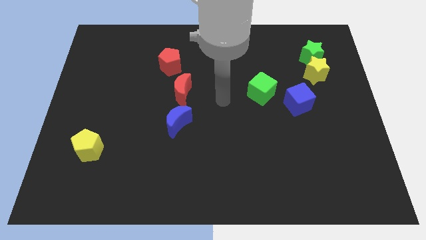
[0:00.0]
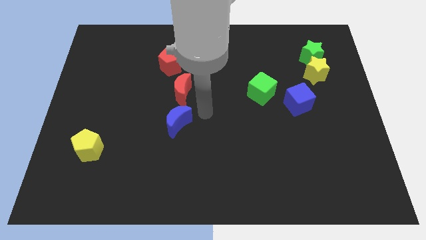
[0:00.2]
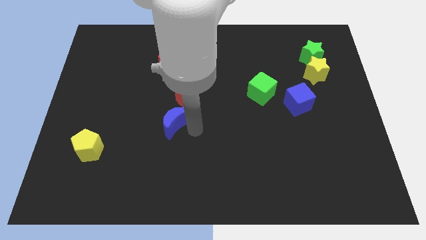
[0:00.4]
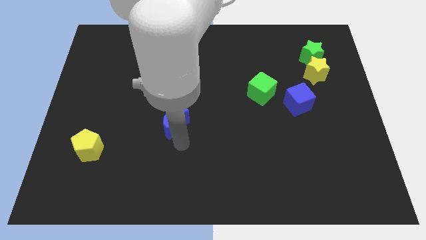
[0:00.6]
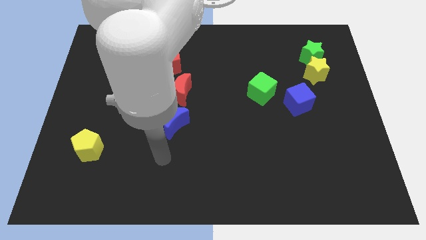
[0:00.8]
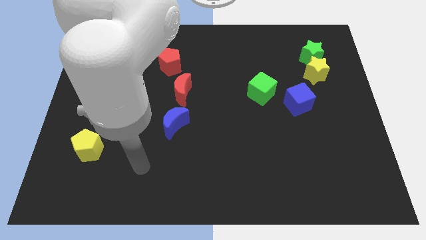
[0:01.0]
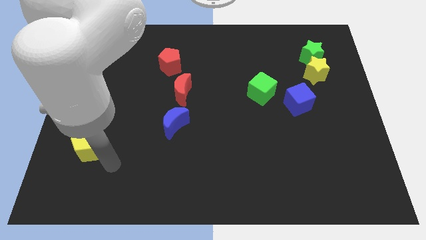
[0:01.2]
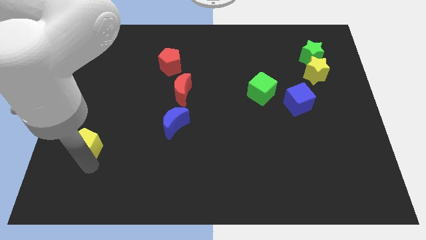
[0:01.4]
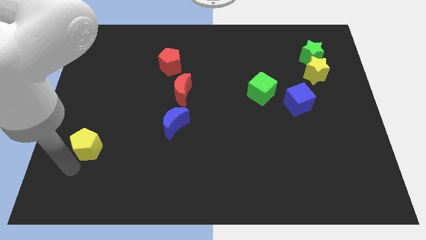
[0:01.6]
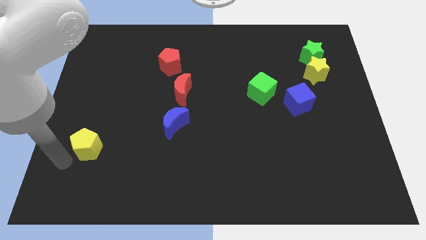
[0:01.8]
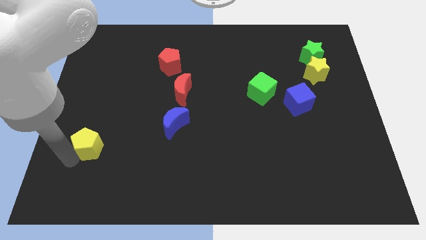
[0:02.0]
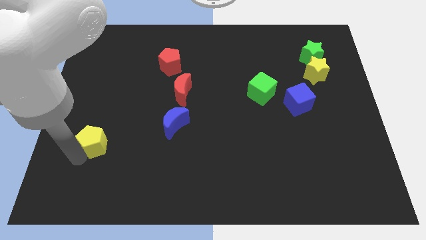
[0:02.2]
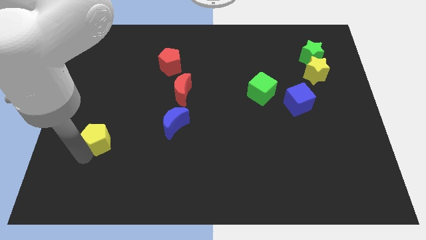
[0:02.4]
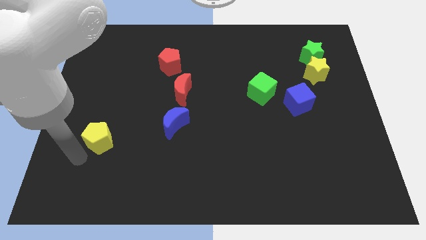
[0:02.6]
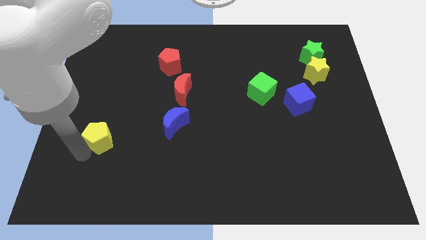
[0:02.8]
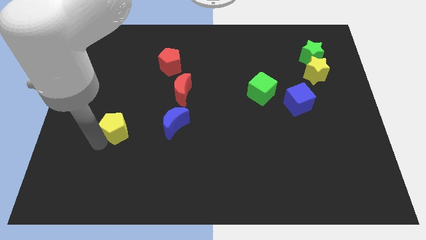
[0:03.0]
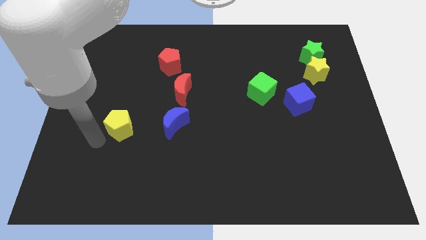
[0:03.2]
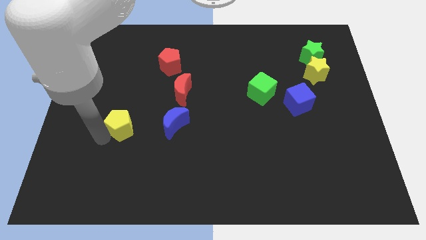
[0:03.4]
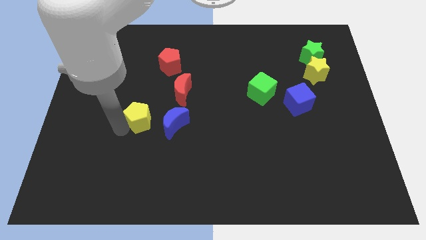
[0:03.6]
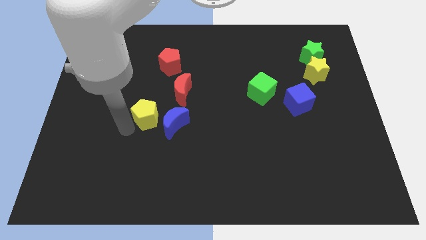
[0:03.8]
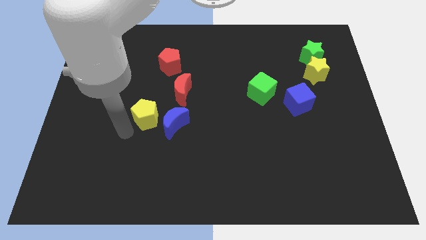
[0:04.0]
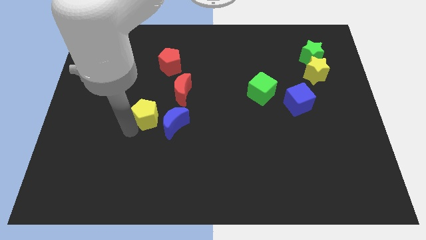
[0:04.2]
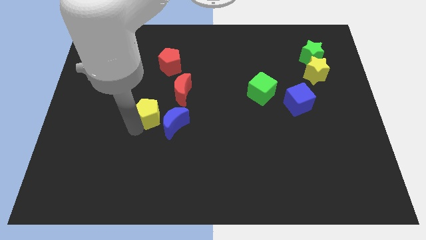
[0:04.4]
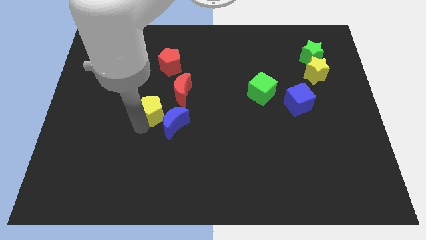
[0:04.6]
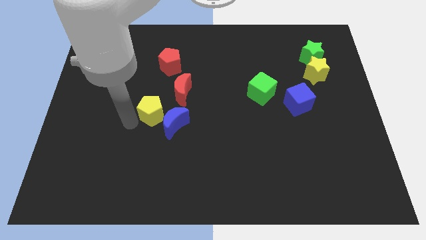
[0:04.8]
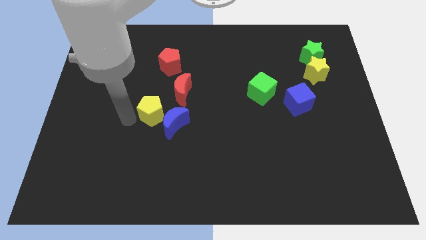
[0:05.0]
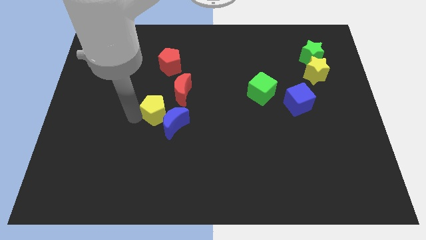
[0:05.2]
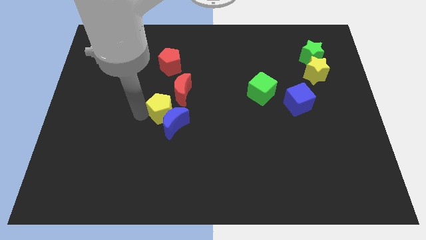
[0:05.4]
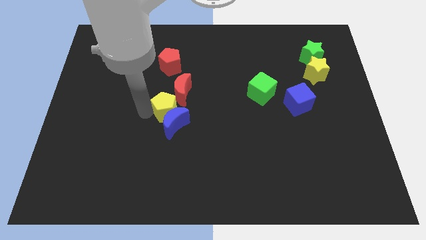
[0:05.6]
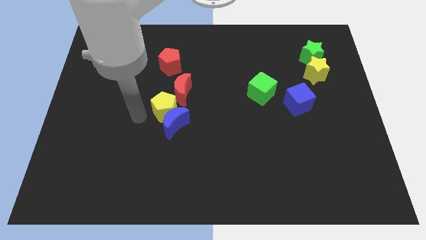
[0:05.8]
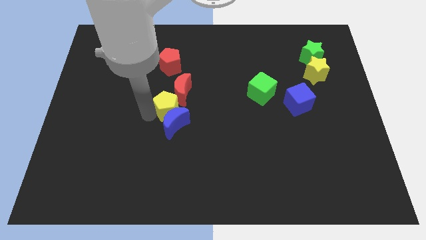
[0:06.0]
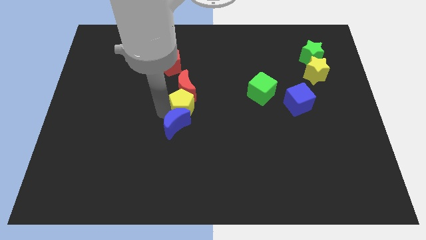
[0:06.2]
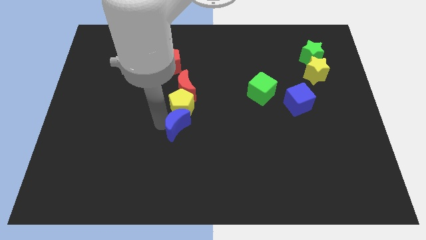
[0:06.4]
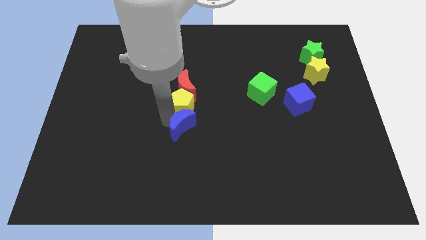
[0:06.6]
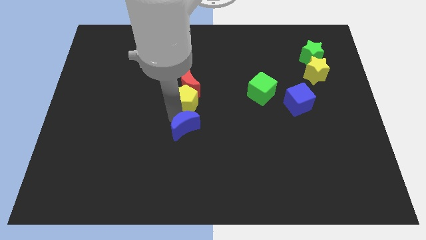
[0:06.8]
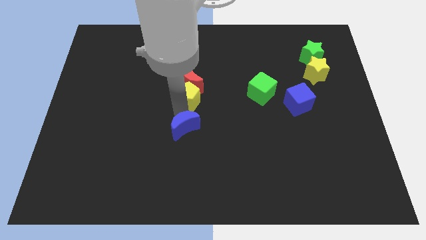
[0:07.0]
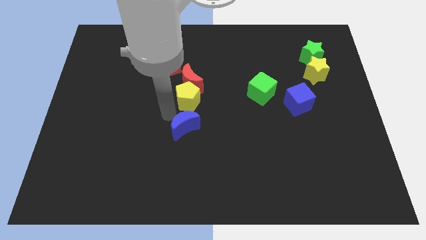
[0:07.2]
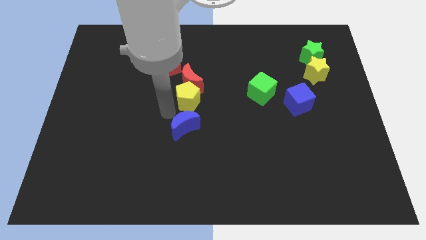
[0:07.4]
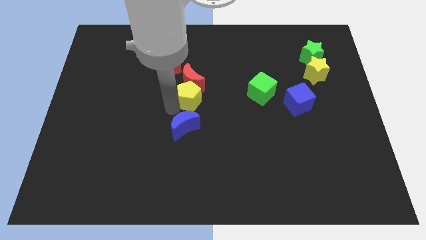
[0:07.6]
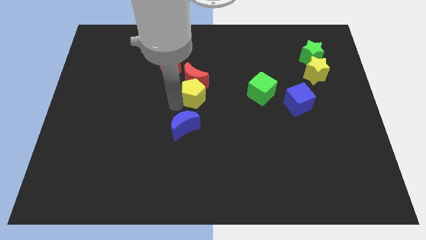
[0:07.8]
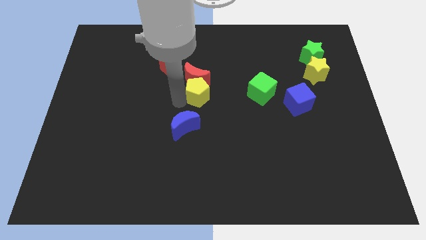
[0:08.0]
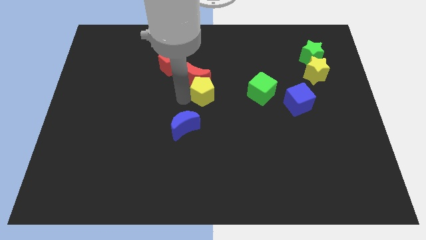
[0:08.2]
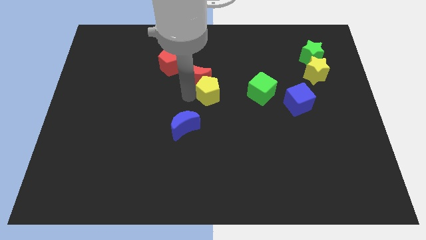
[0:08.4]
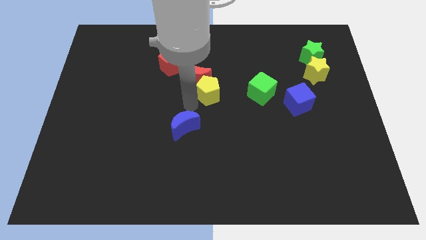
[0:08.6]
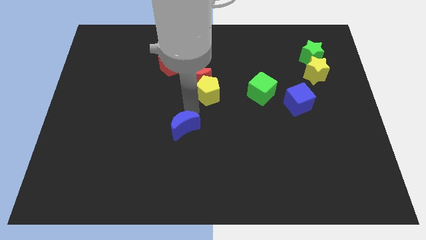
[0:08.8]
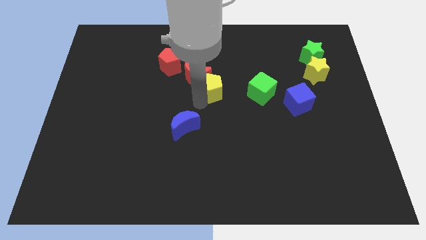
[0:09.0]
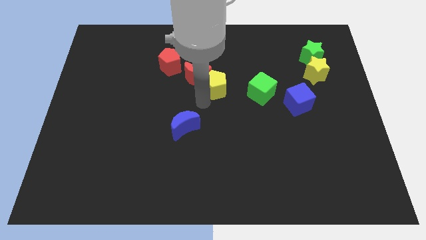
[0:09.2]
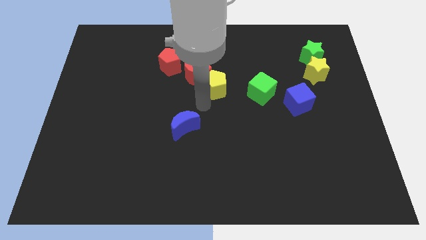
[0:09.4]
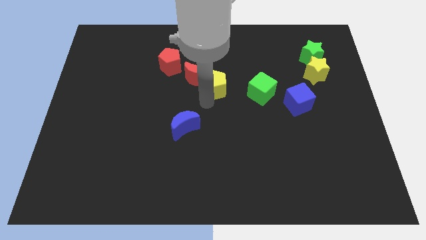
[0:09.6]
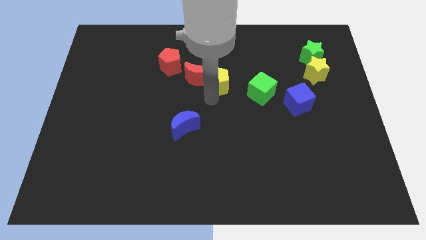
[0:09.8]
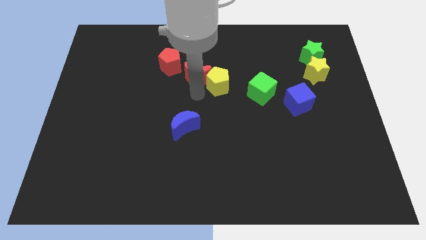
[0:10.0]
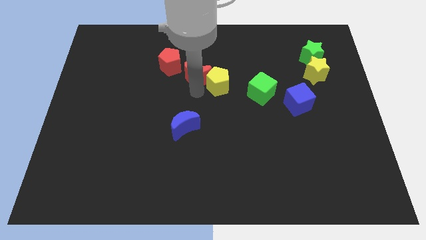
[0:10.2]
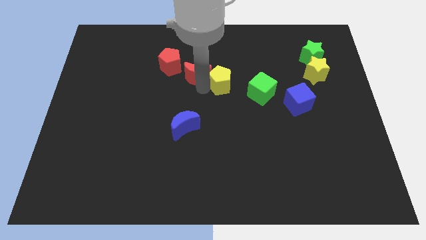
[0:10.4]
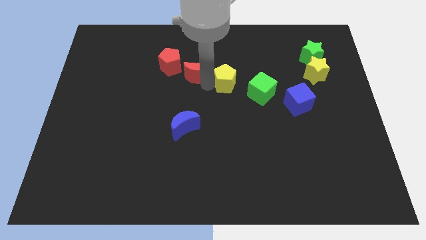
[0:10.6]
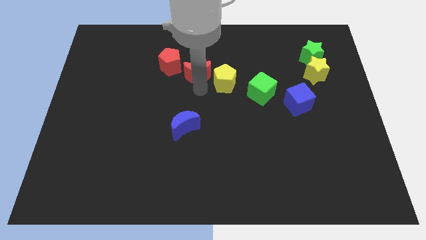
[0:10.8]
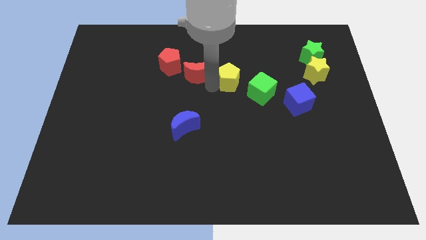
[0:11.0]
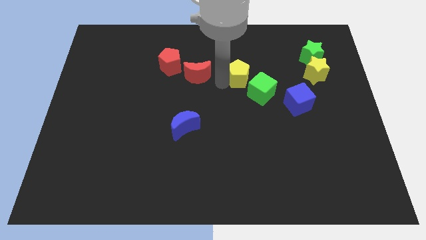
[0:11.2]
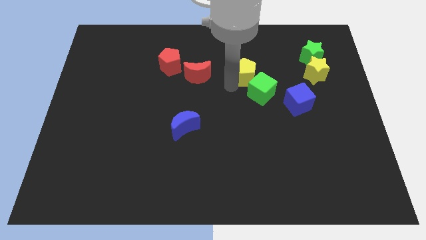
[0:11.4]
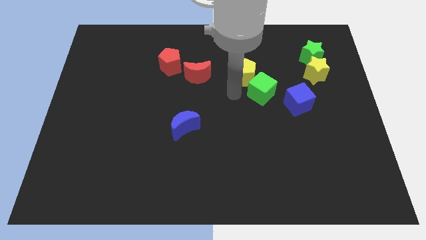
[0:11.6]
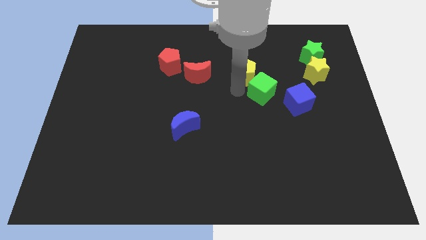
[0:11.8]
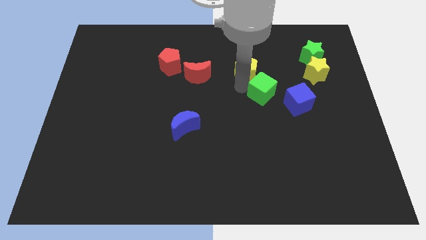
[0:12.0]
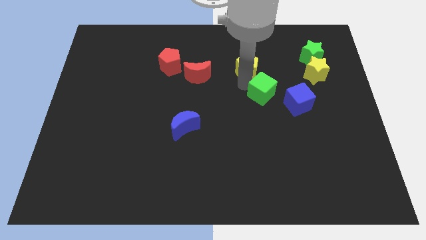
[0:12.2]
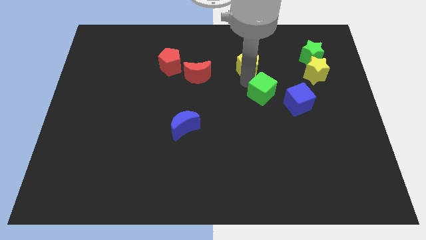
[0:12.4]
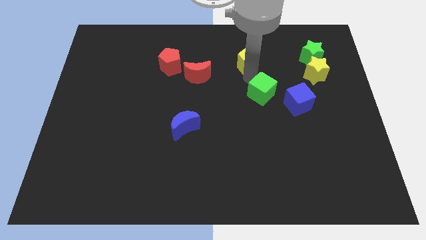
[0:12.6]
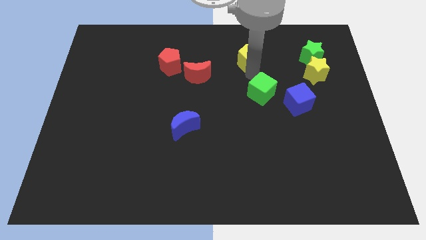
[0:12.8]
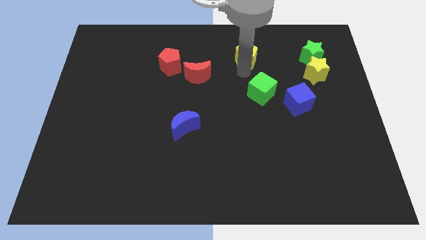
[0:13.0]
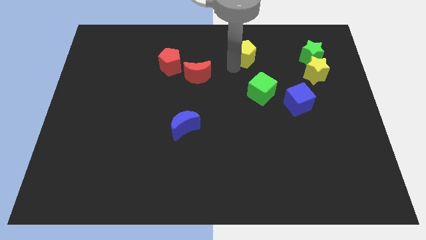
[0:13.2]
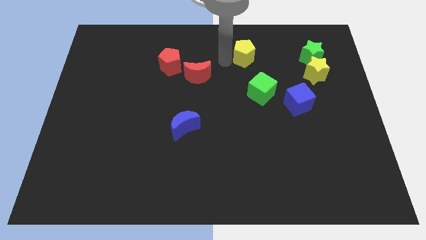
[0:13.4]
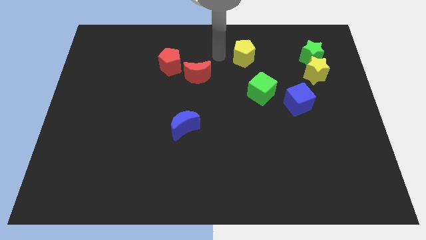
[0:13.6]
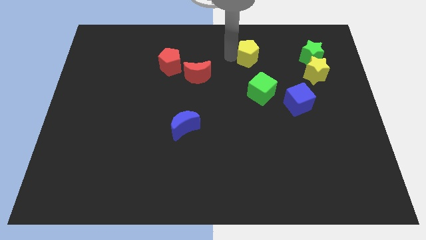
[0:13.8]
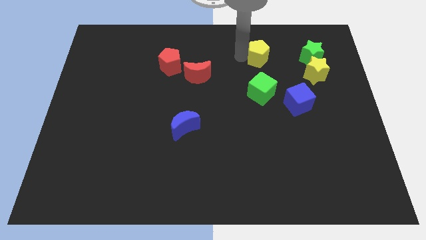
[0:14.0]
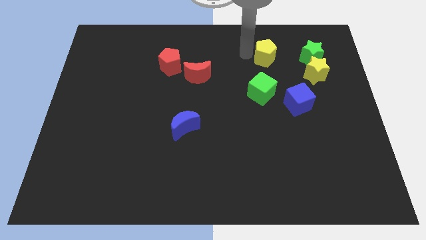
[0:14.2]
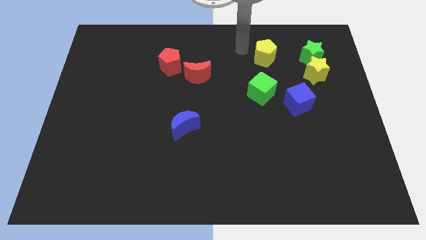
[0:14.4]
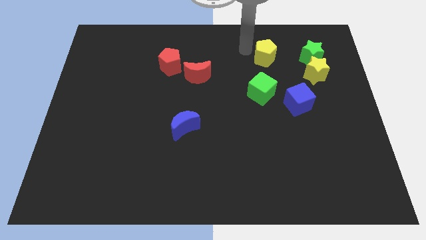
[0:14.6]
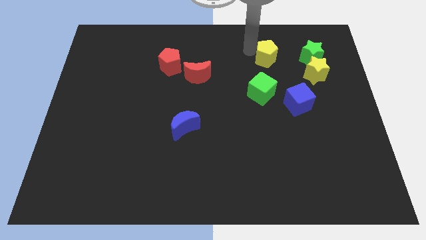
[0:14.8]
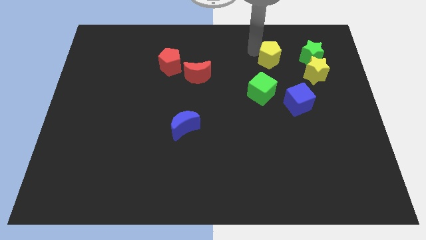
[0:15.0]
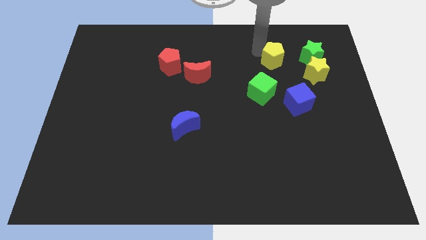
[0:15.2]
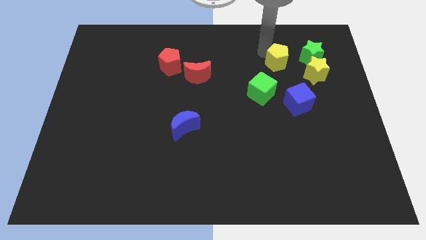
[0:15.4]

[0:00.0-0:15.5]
push the yellow pentagon above the blue cube
